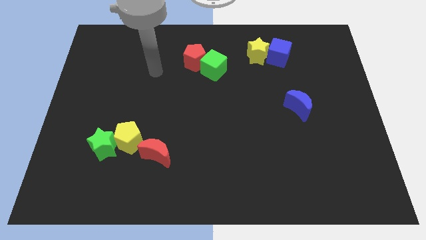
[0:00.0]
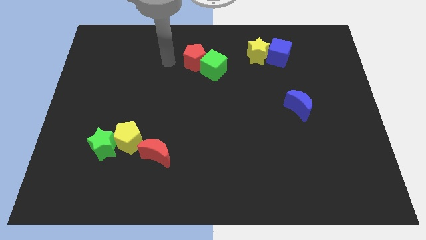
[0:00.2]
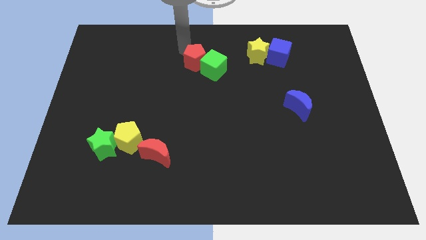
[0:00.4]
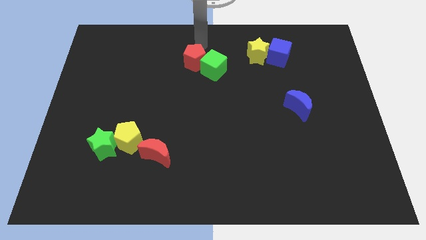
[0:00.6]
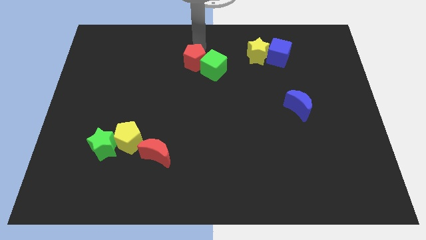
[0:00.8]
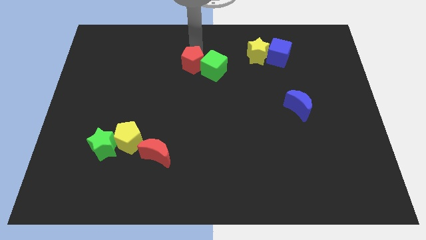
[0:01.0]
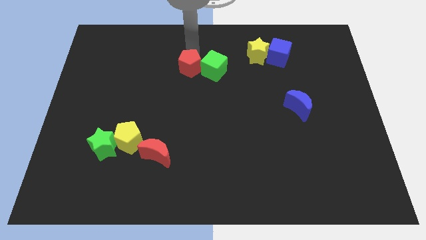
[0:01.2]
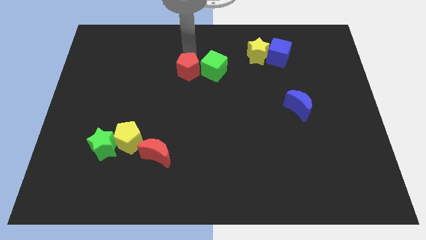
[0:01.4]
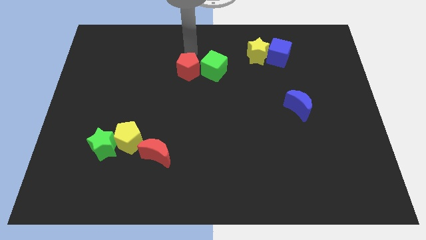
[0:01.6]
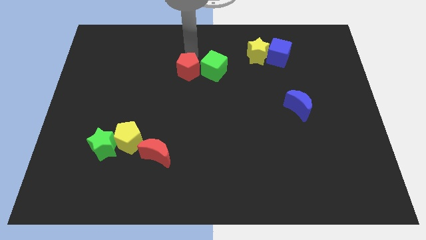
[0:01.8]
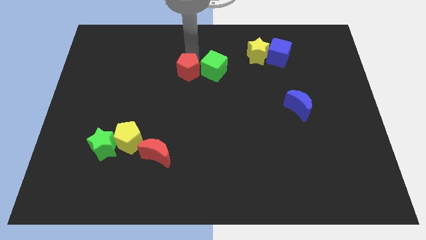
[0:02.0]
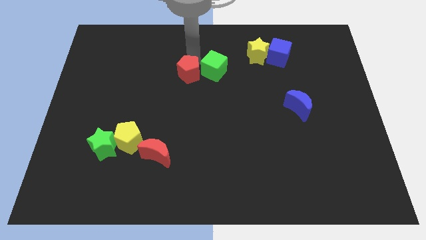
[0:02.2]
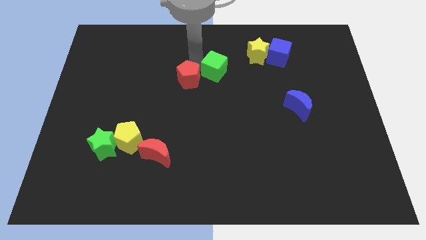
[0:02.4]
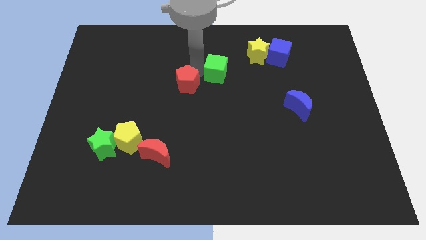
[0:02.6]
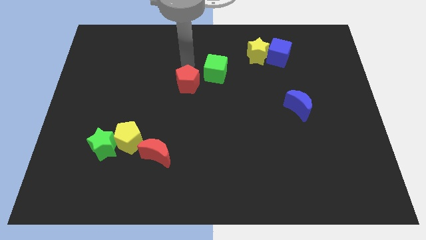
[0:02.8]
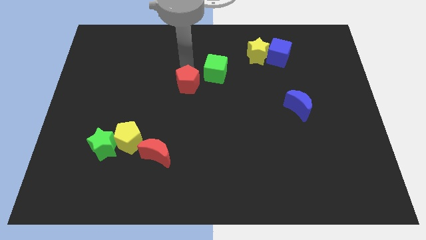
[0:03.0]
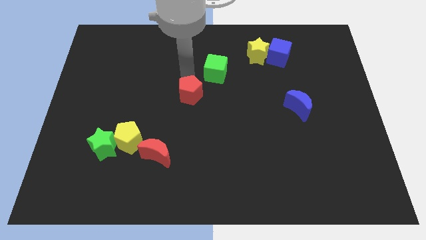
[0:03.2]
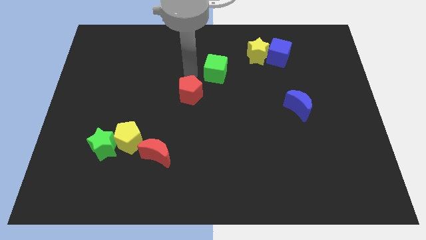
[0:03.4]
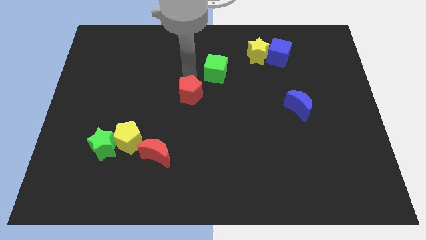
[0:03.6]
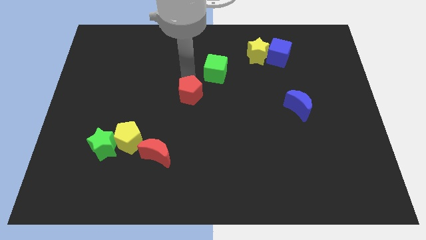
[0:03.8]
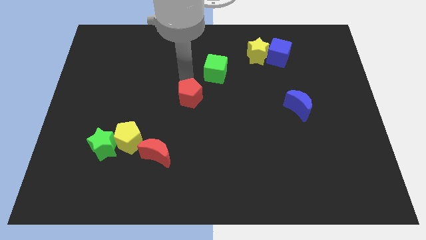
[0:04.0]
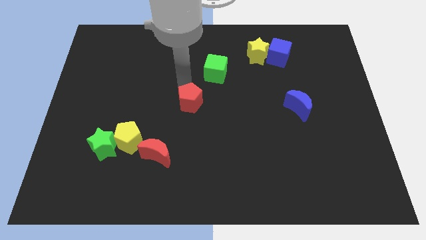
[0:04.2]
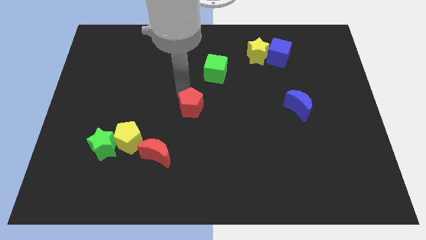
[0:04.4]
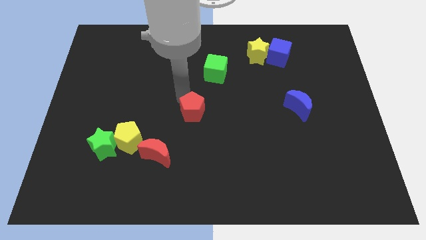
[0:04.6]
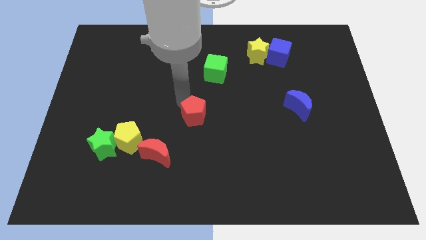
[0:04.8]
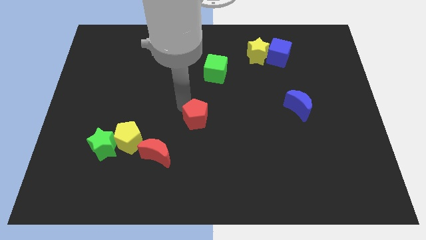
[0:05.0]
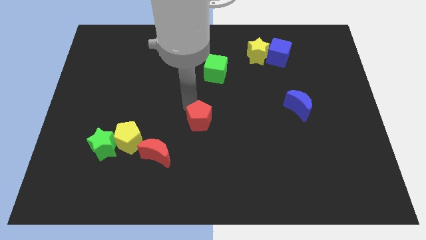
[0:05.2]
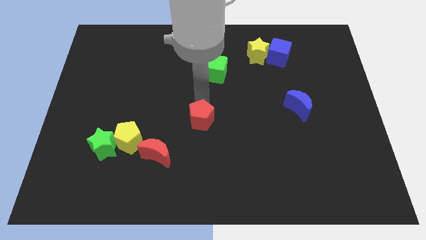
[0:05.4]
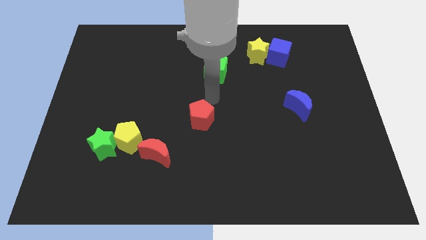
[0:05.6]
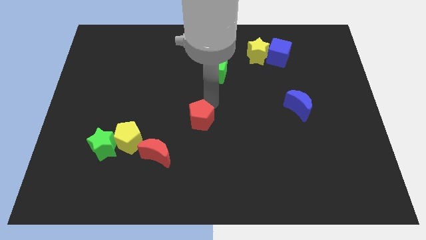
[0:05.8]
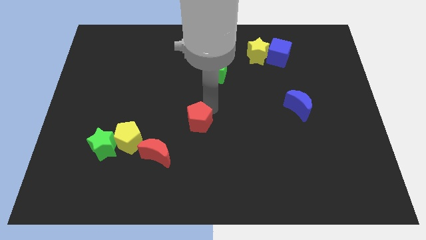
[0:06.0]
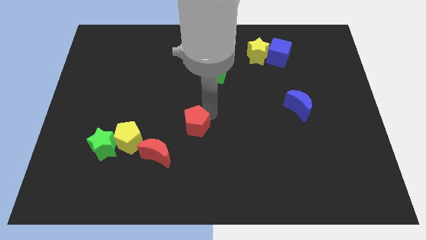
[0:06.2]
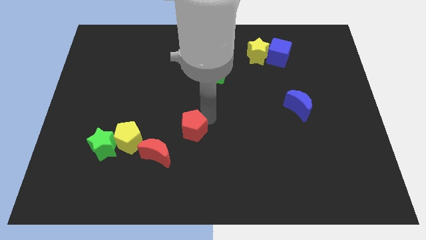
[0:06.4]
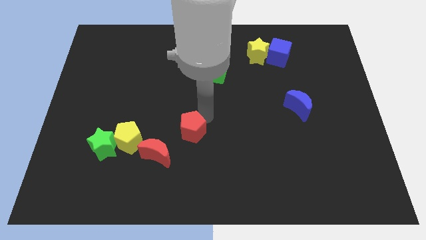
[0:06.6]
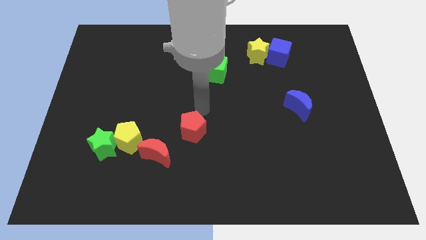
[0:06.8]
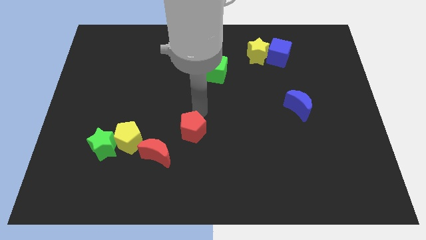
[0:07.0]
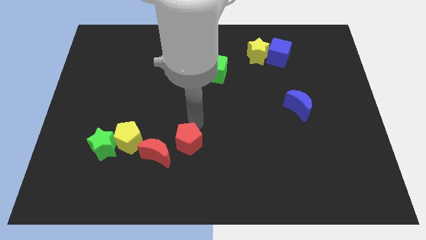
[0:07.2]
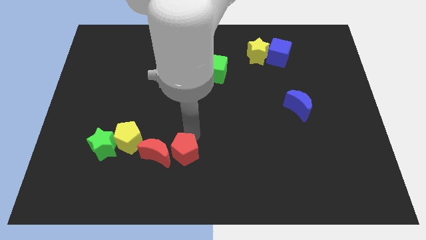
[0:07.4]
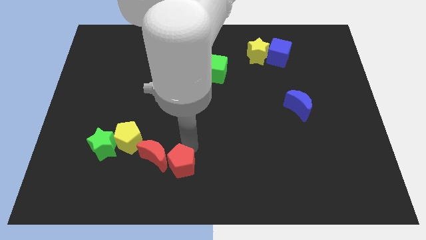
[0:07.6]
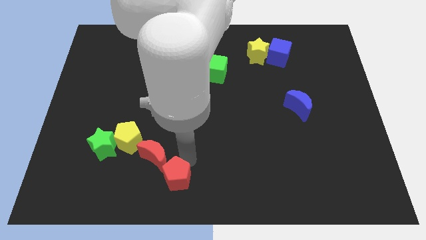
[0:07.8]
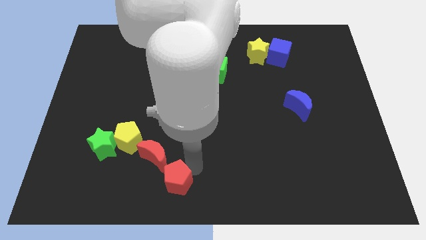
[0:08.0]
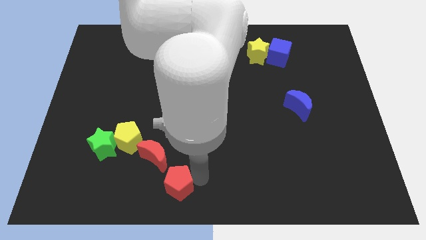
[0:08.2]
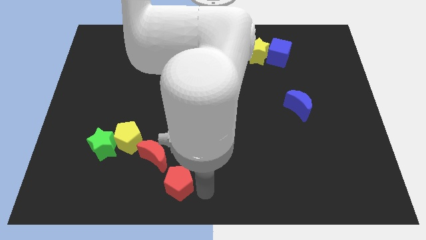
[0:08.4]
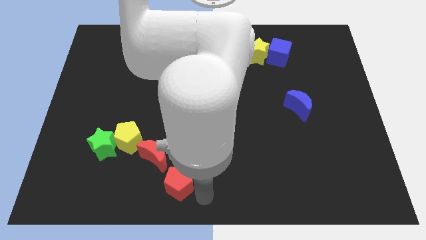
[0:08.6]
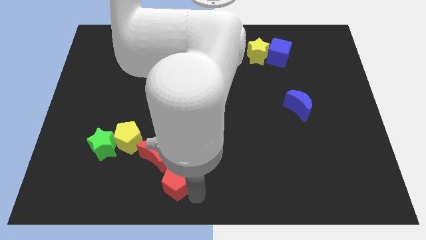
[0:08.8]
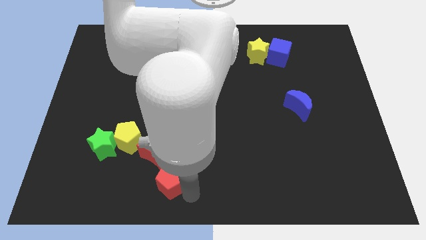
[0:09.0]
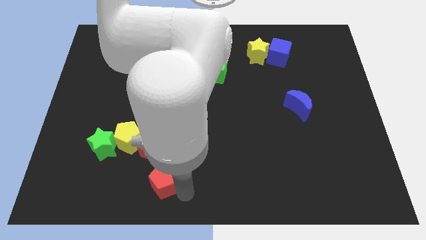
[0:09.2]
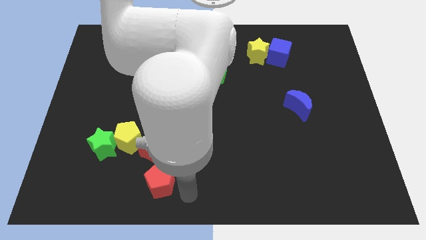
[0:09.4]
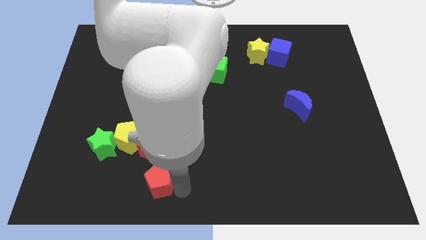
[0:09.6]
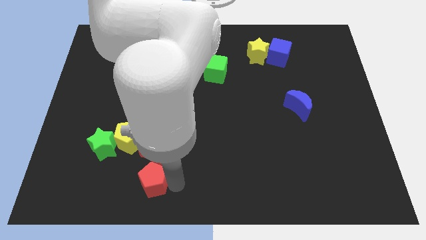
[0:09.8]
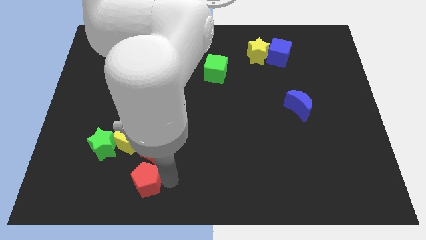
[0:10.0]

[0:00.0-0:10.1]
put the red pentagon to the bottom right side of the green star

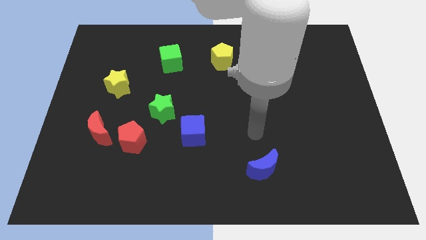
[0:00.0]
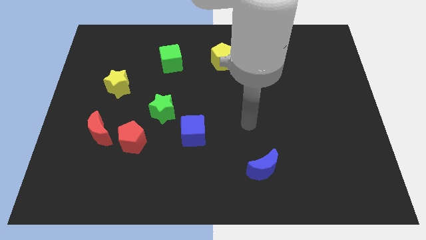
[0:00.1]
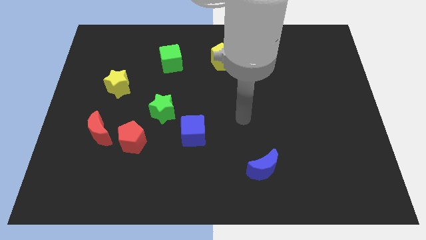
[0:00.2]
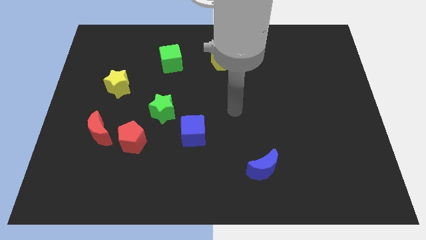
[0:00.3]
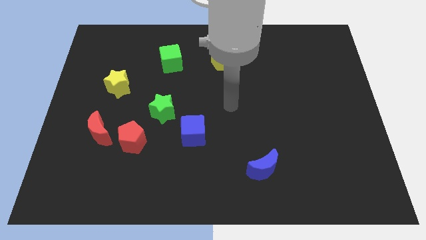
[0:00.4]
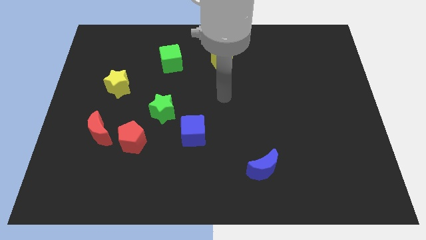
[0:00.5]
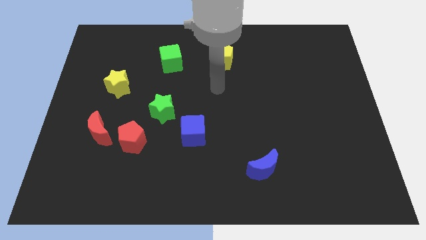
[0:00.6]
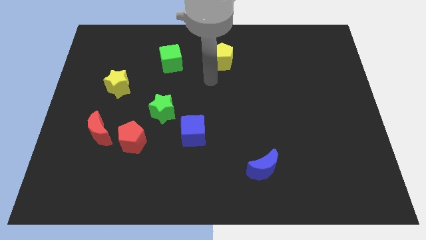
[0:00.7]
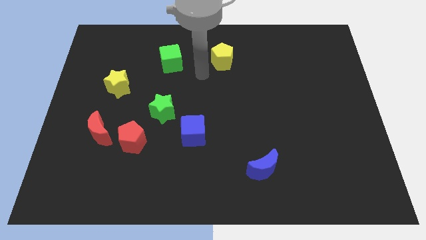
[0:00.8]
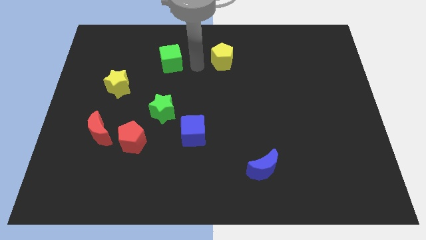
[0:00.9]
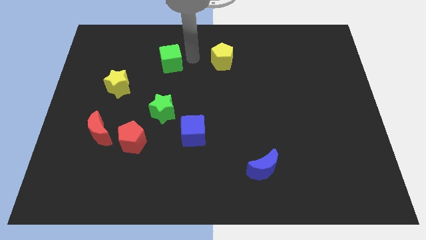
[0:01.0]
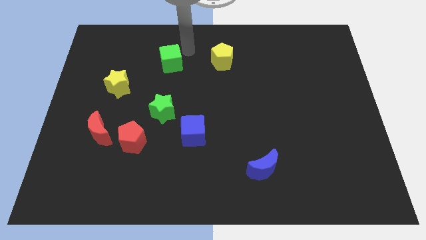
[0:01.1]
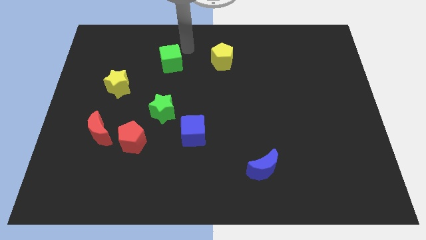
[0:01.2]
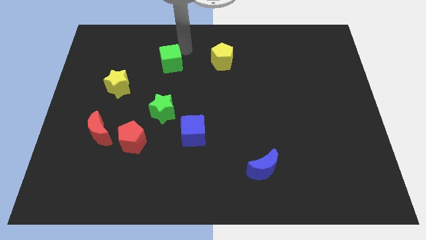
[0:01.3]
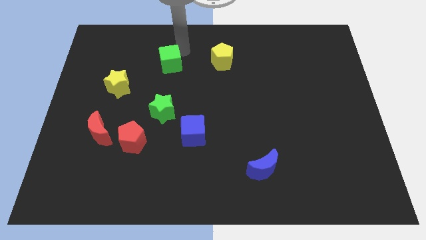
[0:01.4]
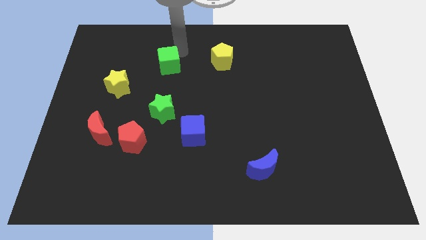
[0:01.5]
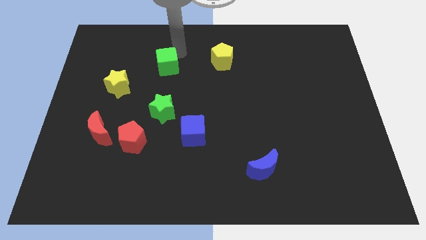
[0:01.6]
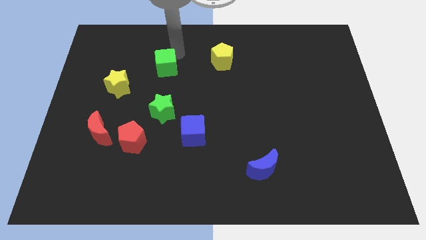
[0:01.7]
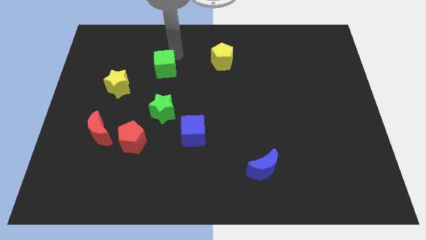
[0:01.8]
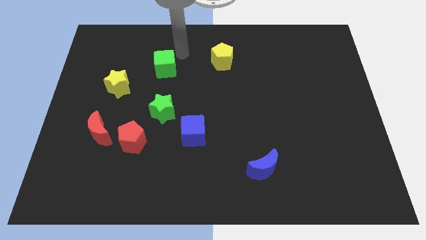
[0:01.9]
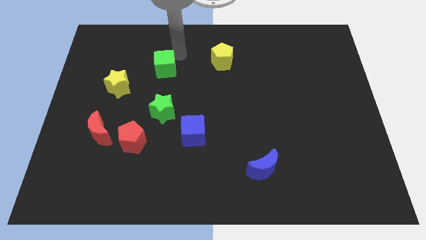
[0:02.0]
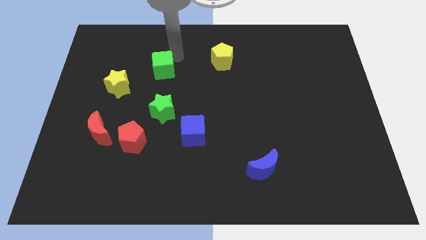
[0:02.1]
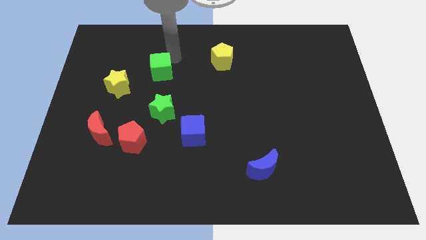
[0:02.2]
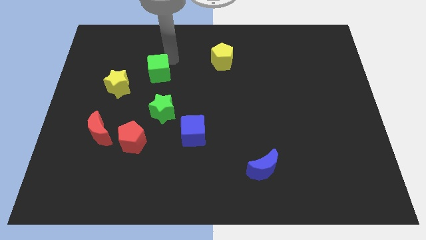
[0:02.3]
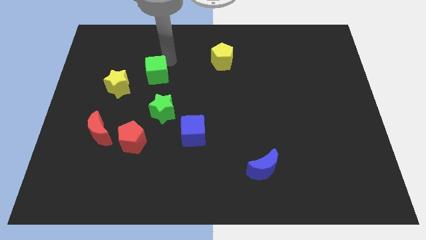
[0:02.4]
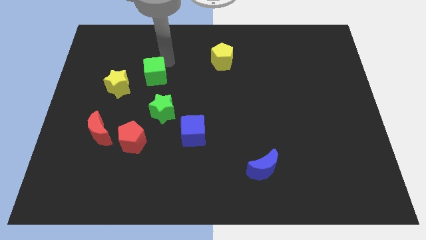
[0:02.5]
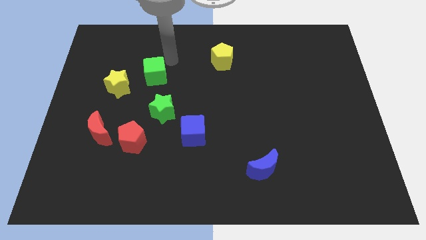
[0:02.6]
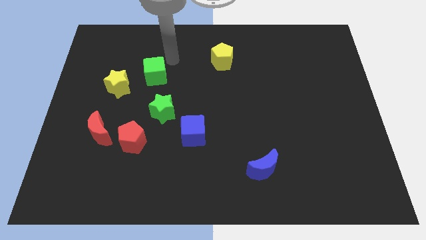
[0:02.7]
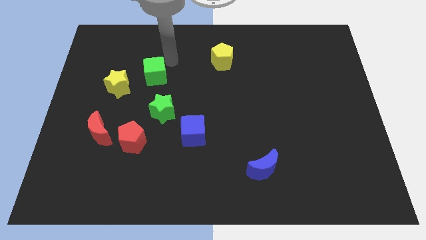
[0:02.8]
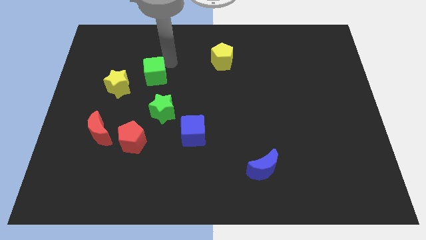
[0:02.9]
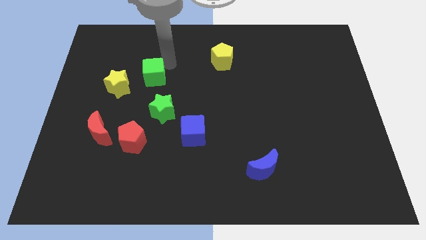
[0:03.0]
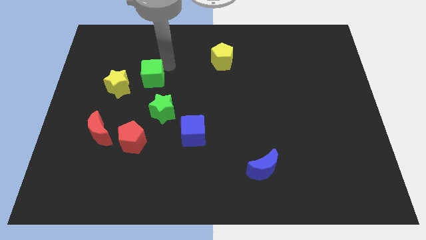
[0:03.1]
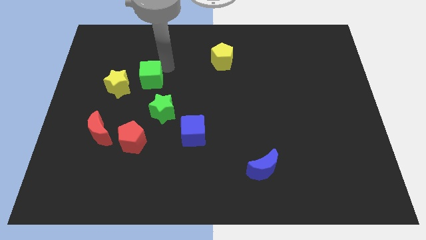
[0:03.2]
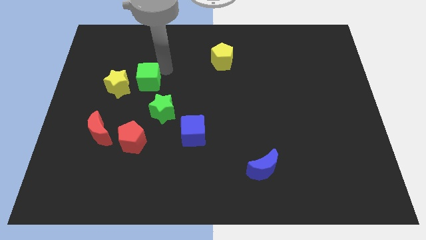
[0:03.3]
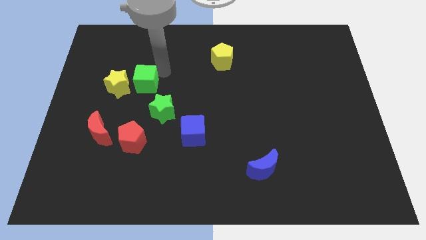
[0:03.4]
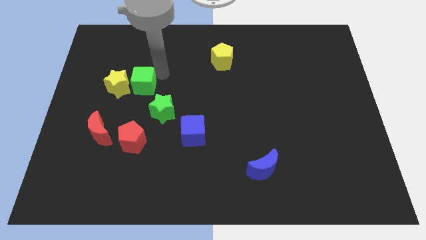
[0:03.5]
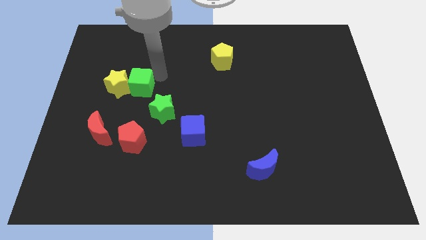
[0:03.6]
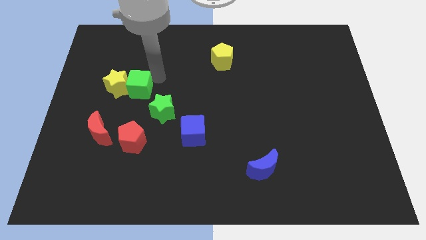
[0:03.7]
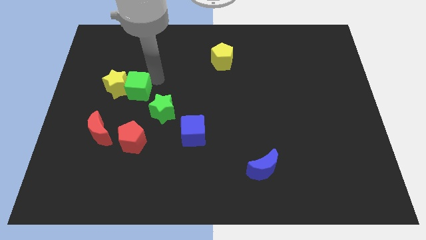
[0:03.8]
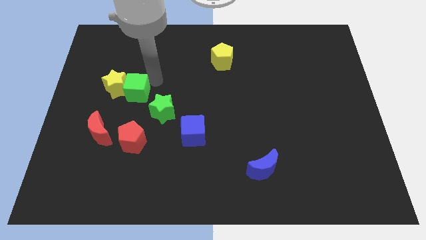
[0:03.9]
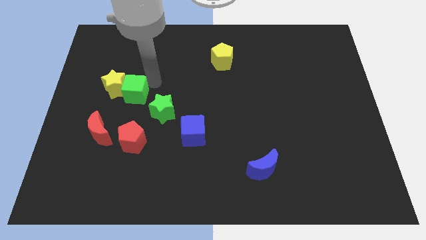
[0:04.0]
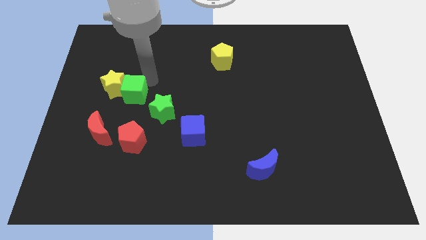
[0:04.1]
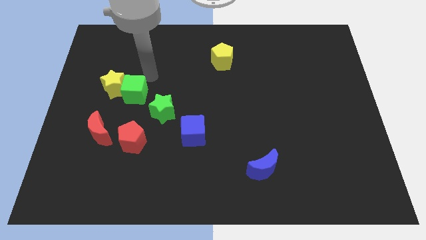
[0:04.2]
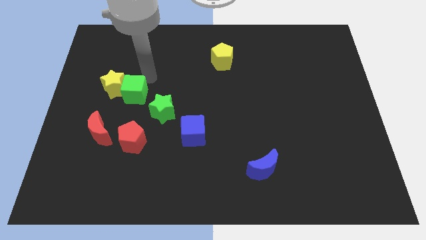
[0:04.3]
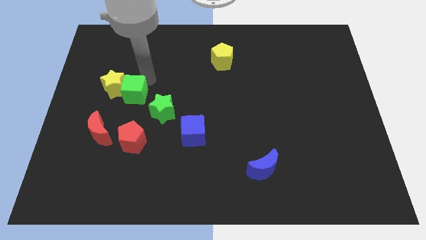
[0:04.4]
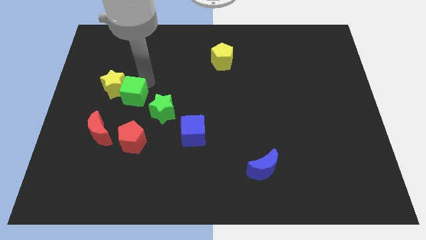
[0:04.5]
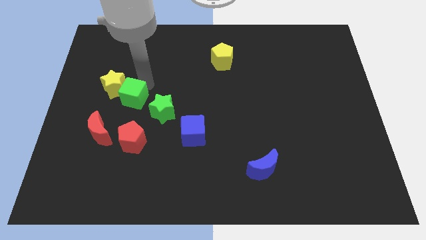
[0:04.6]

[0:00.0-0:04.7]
move the green cube just left of the green star
